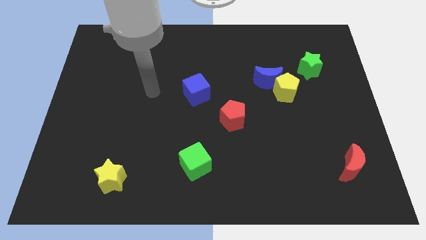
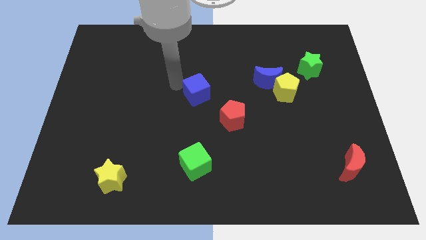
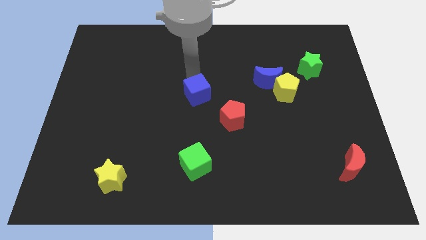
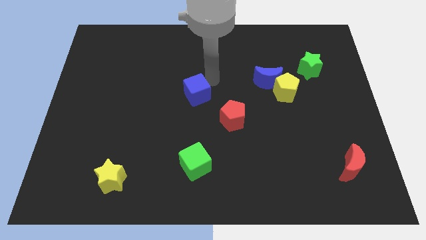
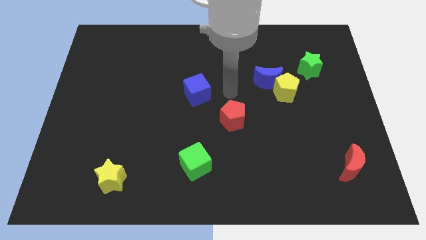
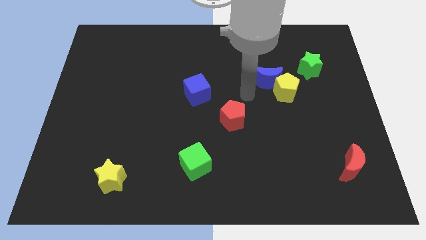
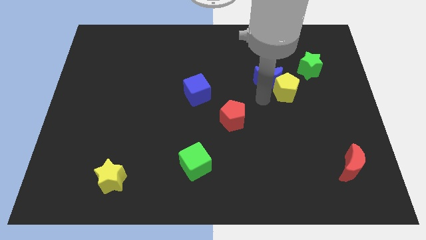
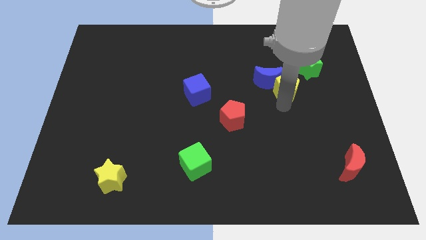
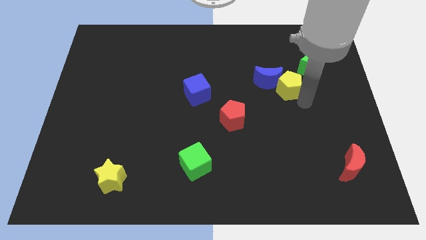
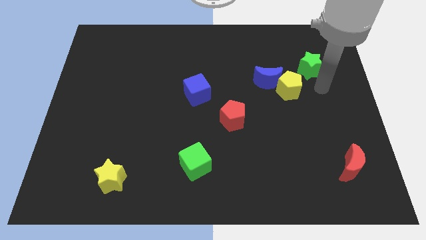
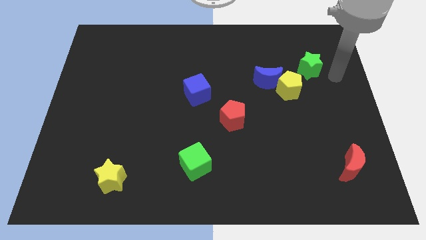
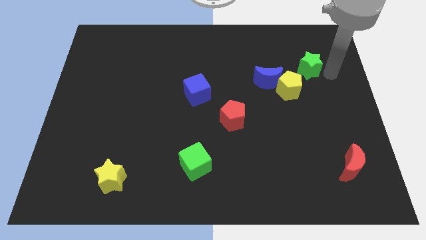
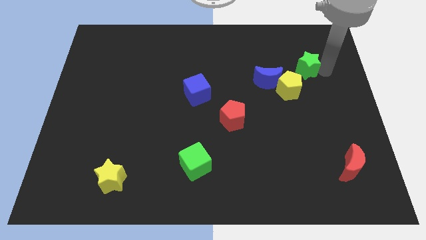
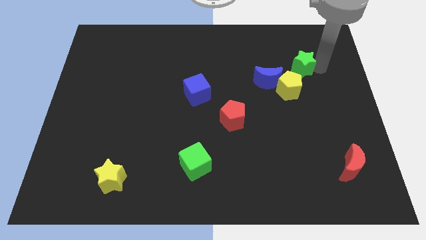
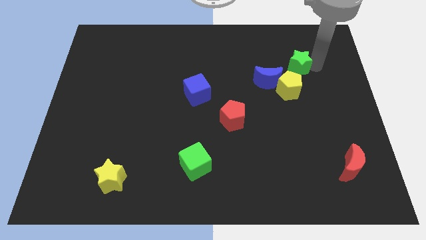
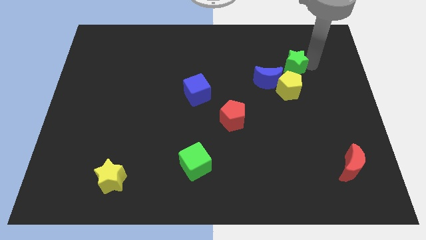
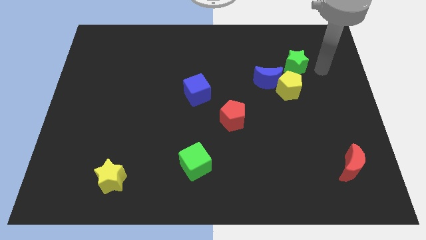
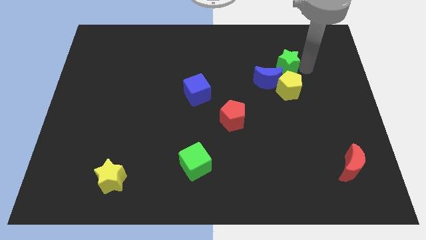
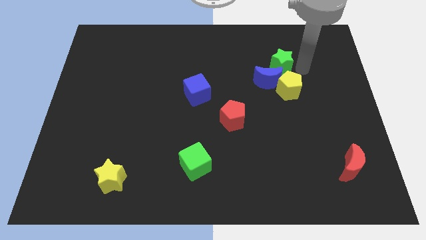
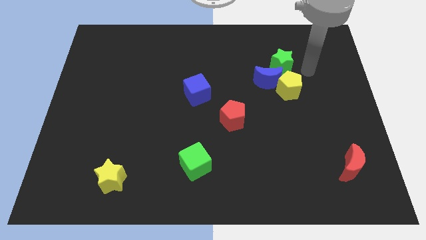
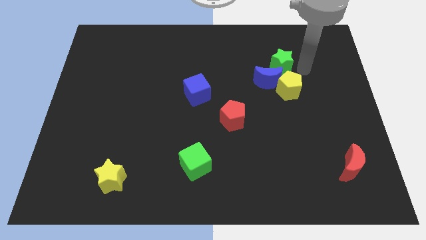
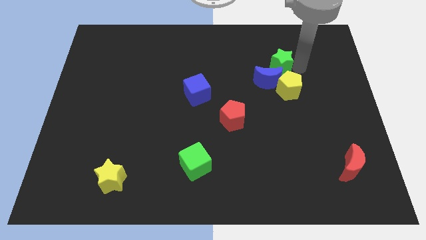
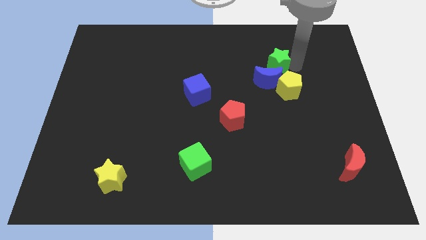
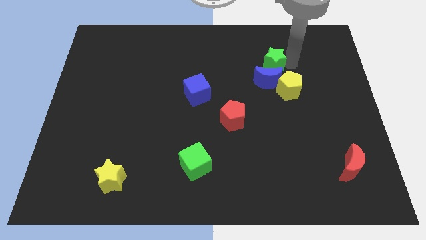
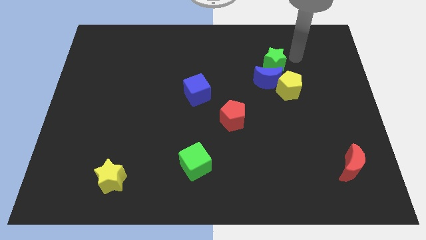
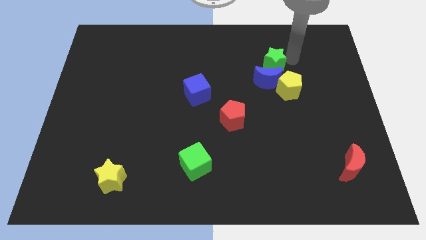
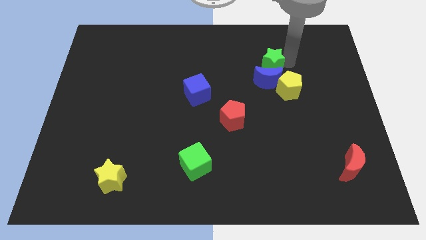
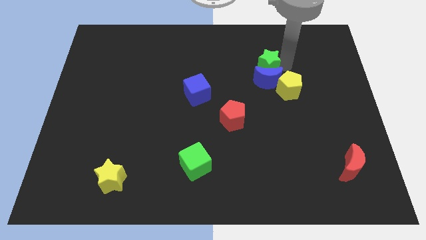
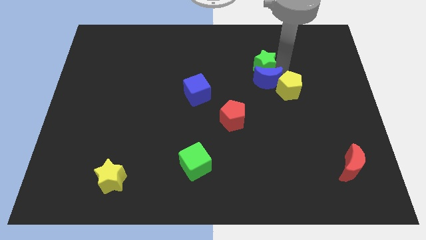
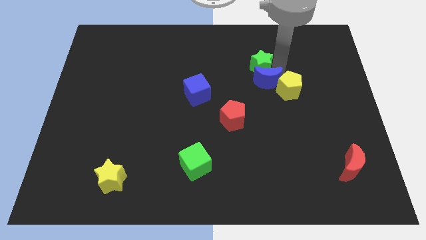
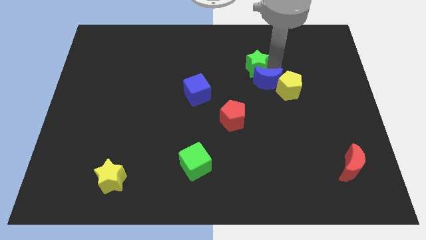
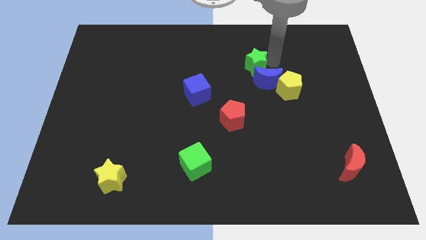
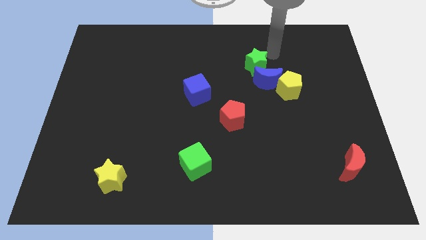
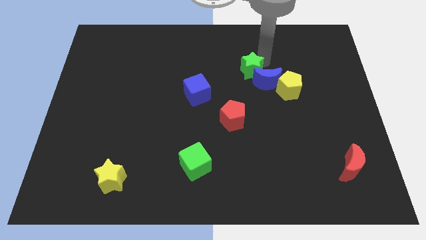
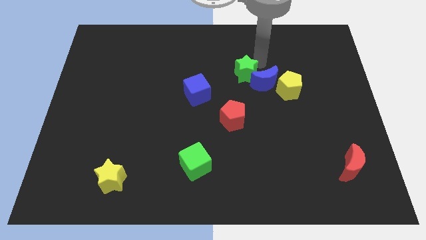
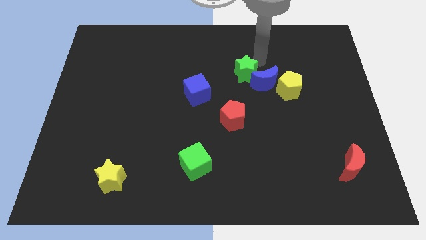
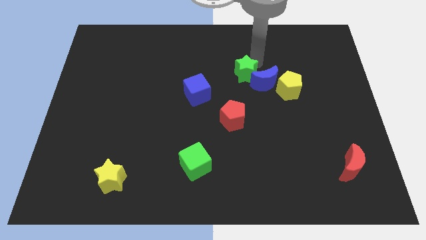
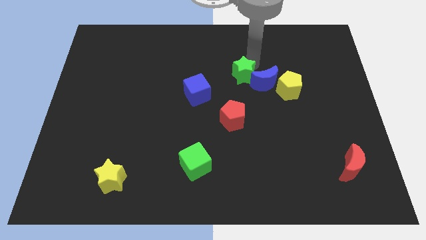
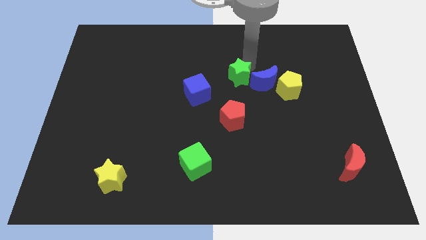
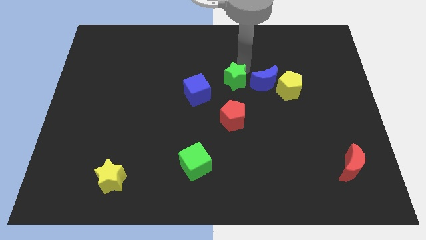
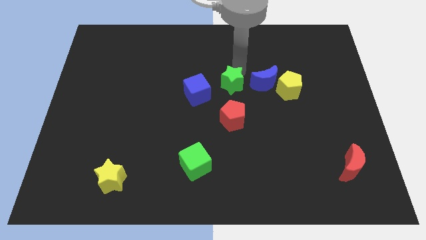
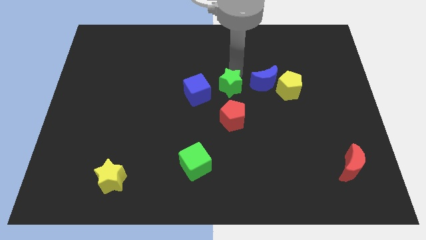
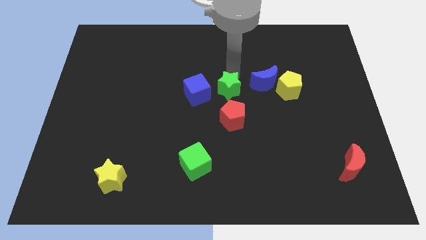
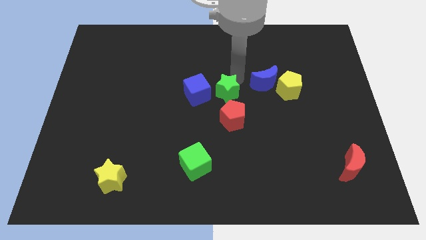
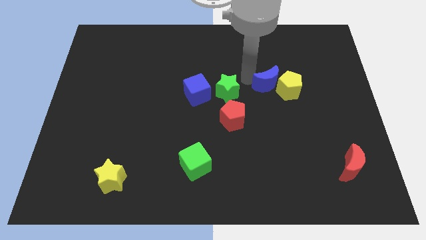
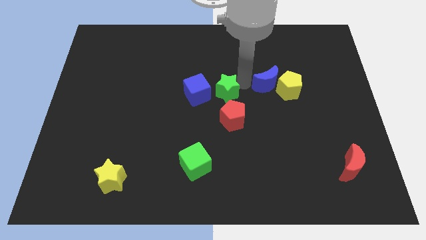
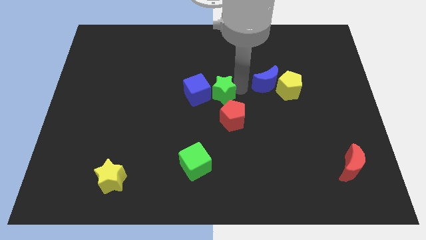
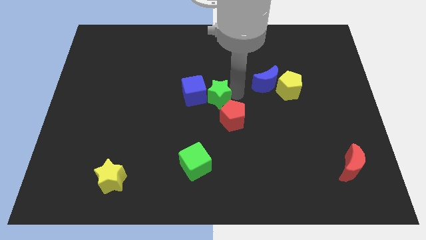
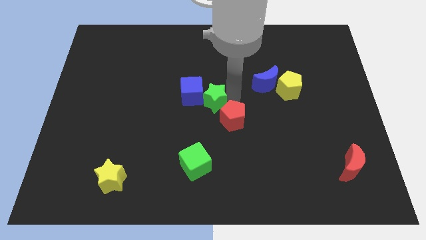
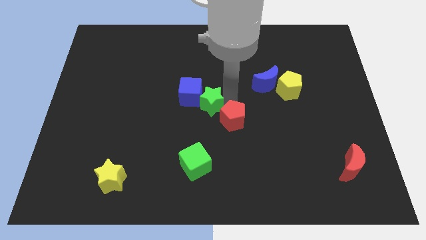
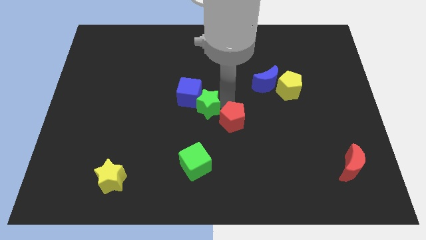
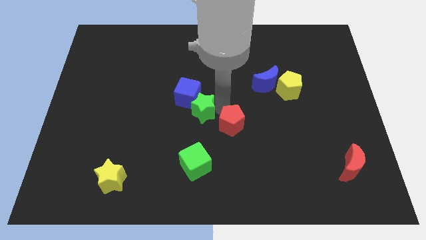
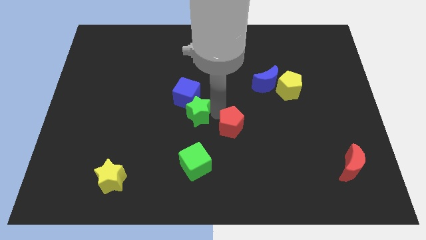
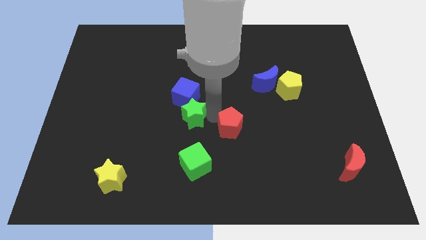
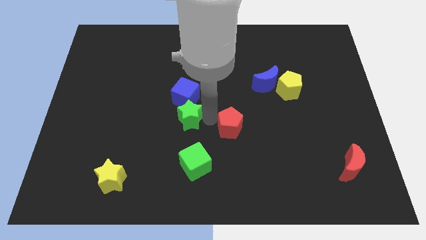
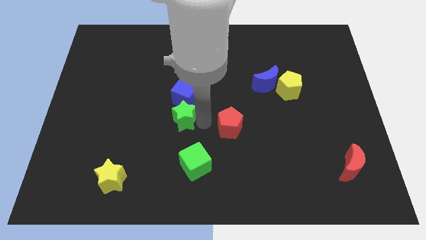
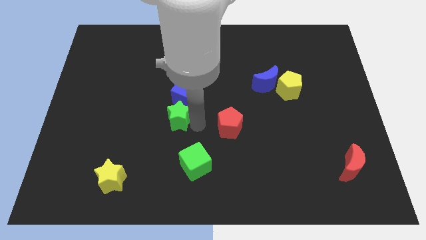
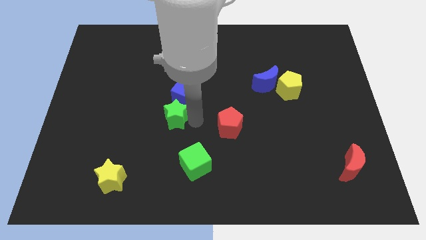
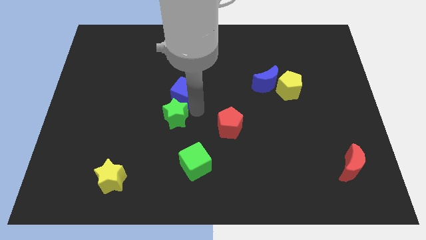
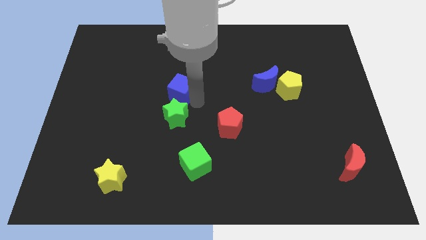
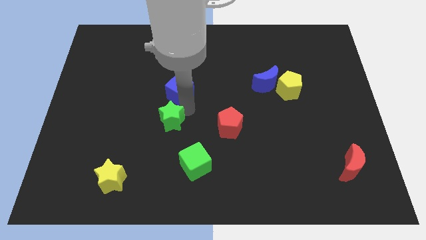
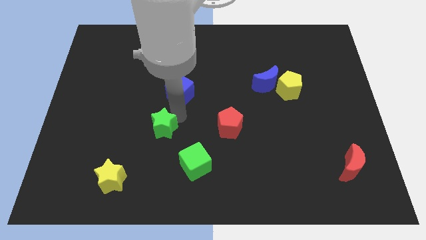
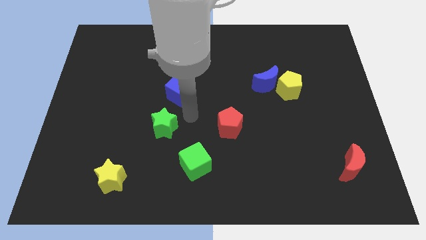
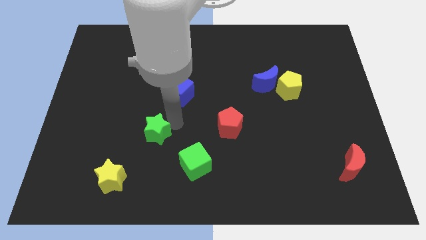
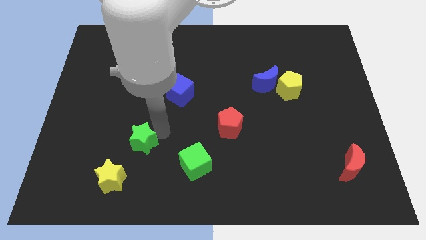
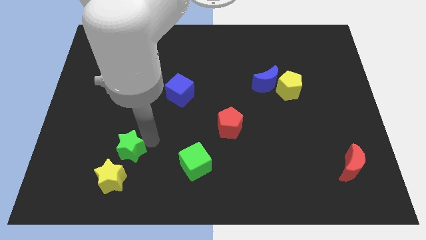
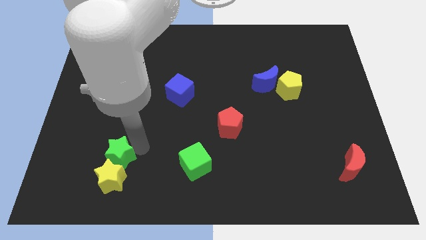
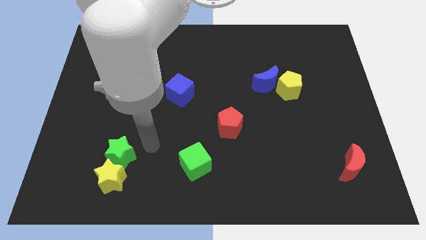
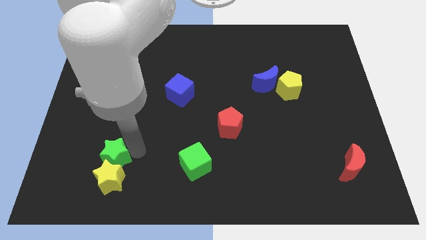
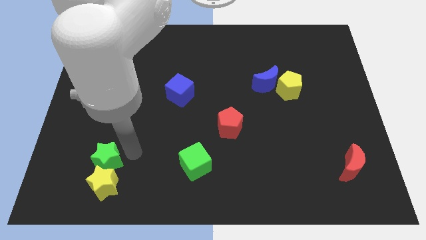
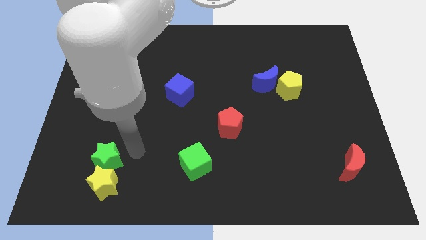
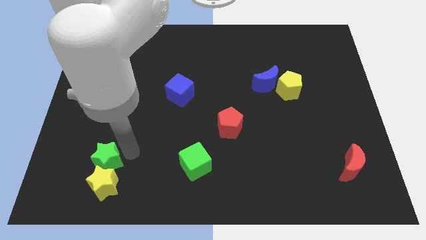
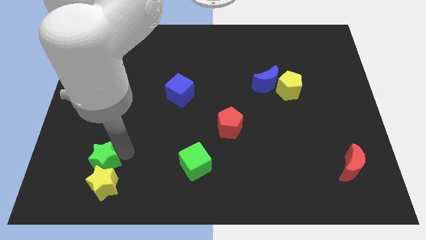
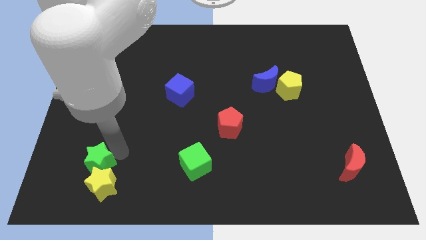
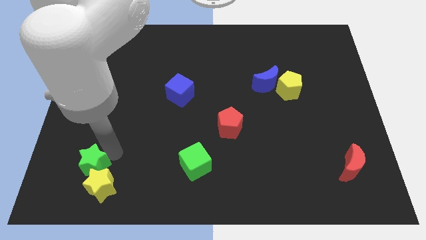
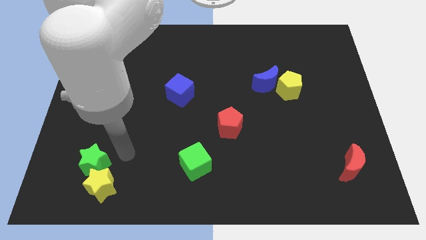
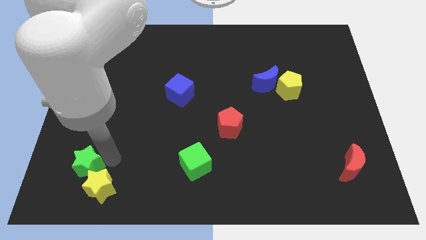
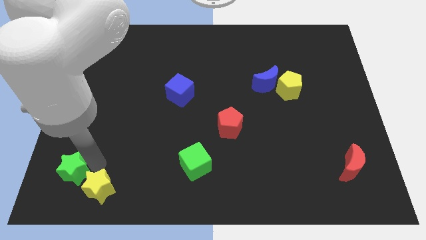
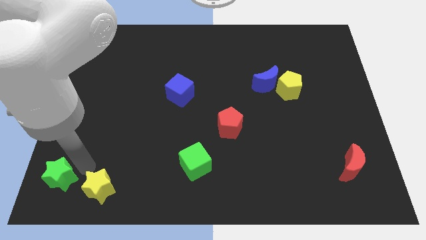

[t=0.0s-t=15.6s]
slide the green star to the bottom left of the board
